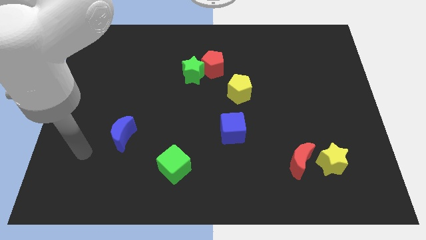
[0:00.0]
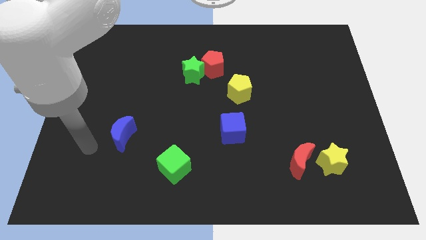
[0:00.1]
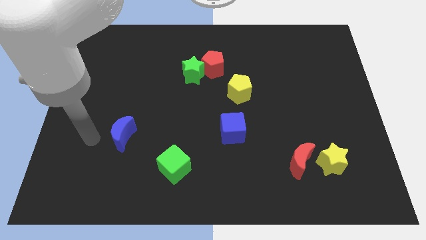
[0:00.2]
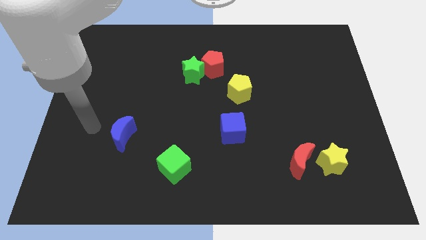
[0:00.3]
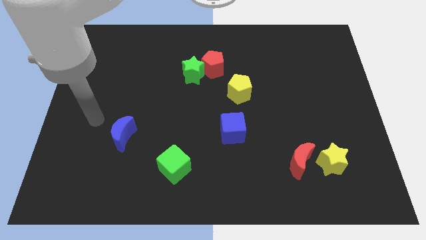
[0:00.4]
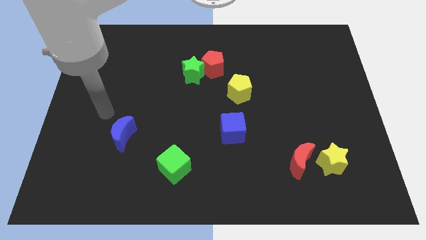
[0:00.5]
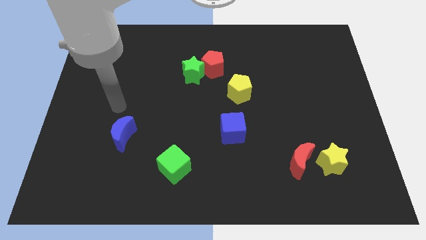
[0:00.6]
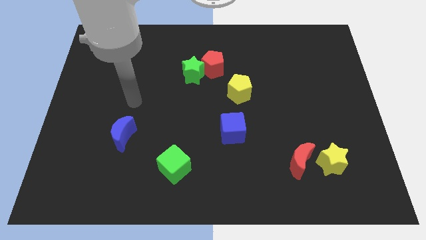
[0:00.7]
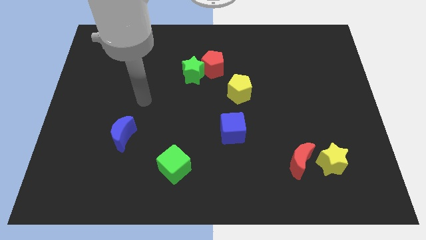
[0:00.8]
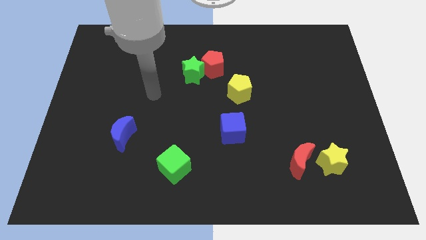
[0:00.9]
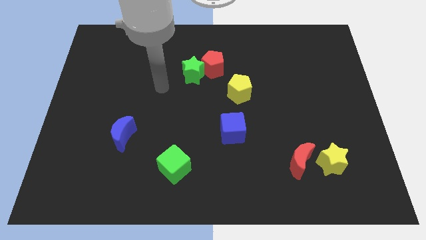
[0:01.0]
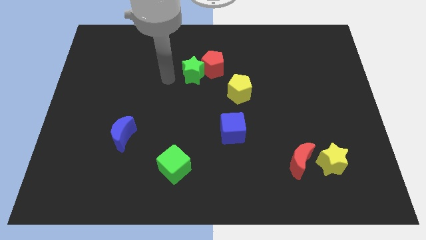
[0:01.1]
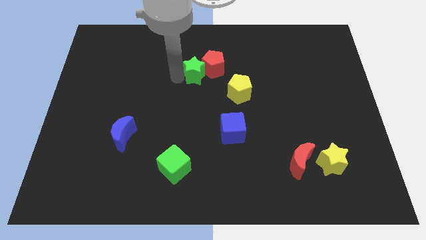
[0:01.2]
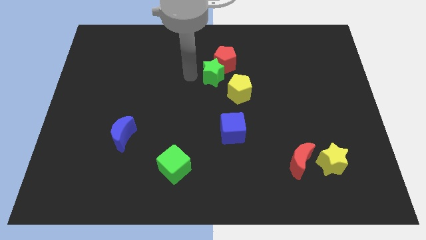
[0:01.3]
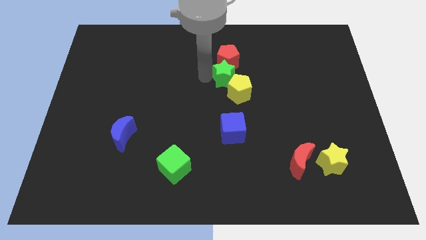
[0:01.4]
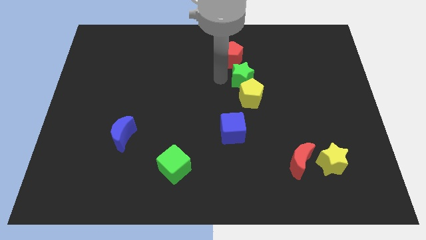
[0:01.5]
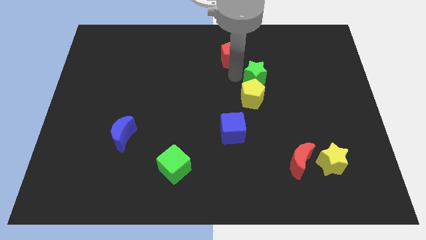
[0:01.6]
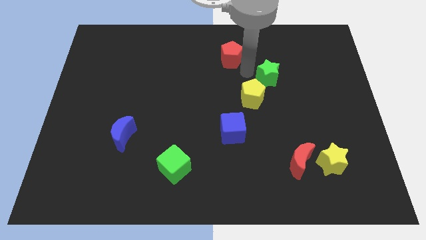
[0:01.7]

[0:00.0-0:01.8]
pull the red pentagon apart from the green star

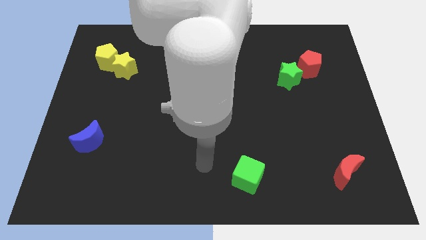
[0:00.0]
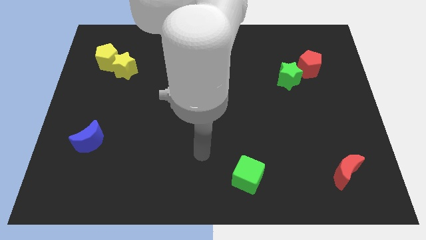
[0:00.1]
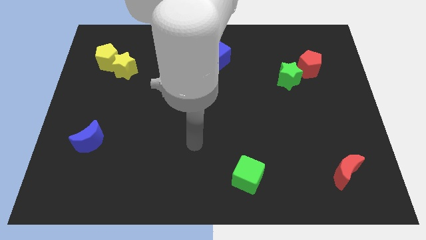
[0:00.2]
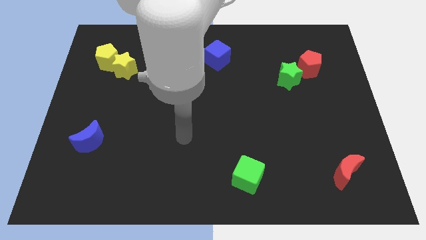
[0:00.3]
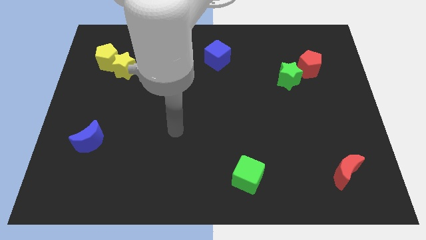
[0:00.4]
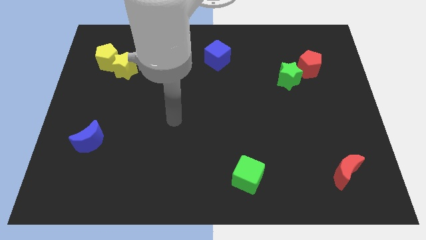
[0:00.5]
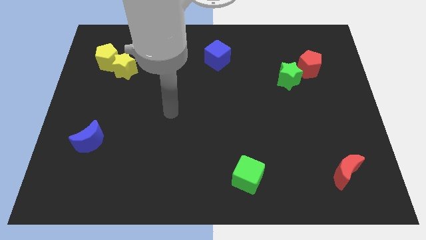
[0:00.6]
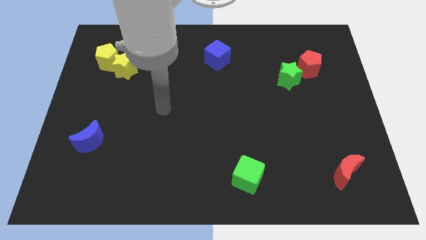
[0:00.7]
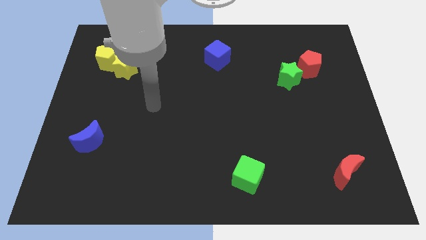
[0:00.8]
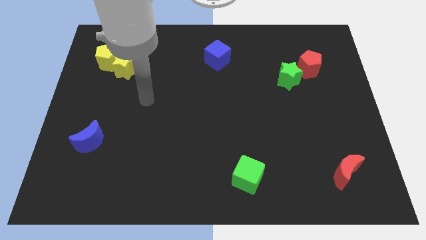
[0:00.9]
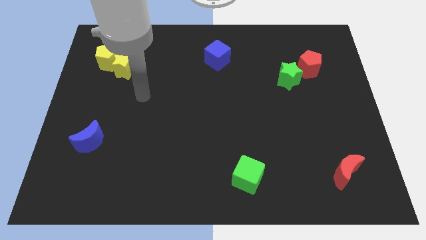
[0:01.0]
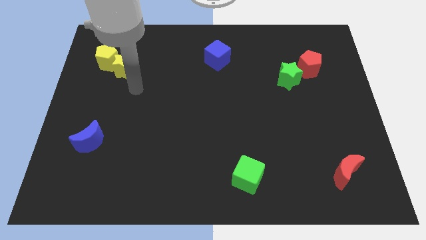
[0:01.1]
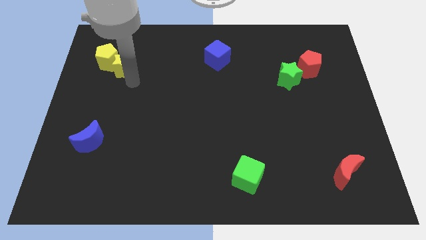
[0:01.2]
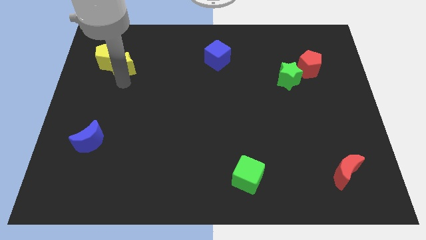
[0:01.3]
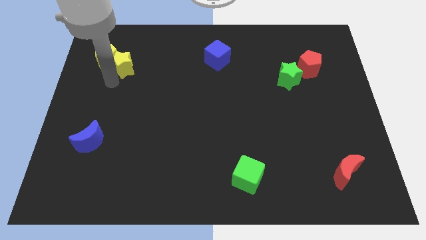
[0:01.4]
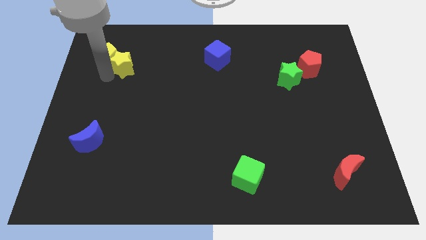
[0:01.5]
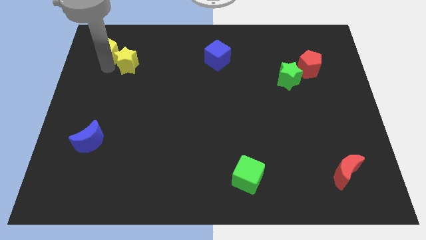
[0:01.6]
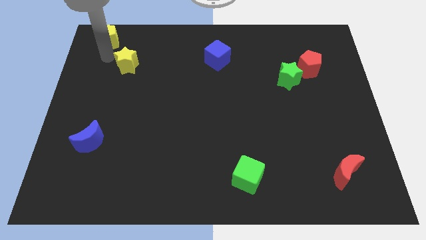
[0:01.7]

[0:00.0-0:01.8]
separate the yellow star from the yellow pentagon

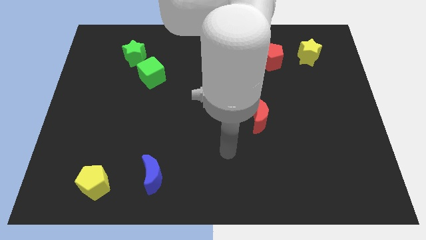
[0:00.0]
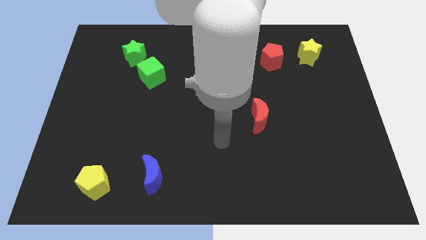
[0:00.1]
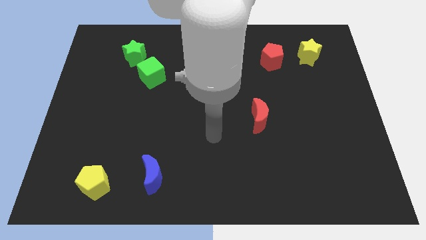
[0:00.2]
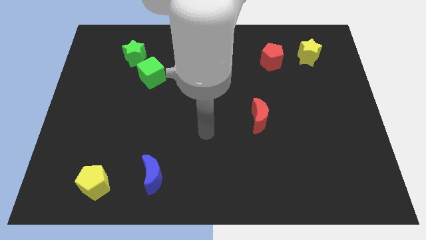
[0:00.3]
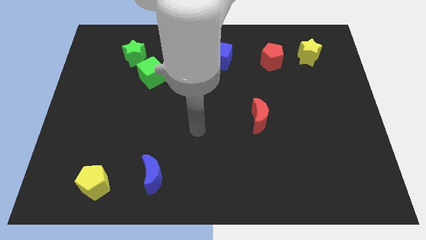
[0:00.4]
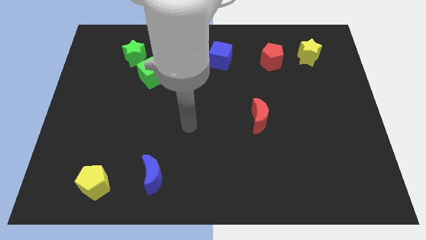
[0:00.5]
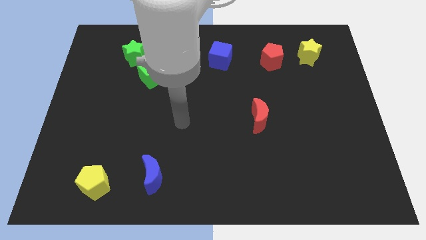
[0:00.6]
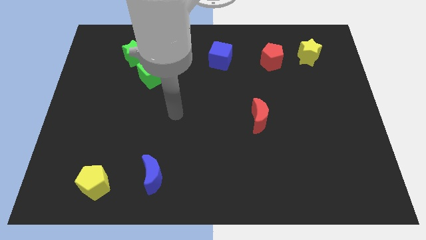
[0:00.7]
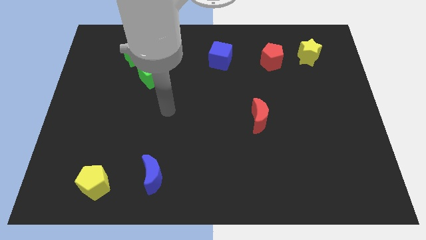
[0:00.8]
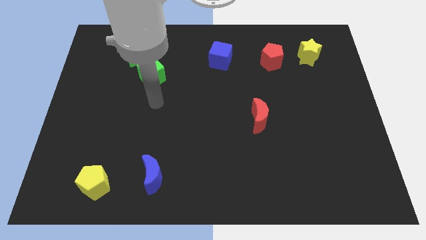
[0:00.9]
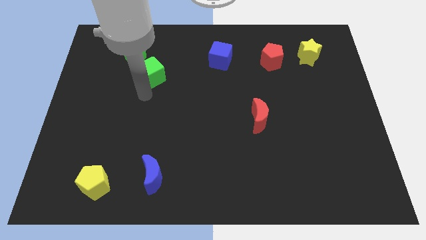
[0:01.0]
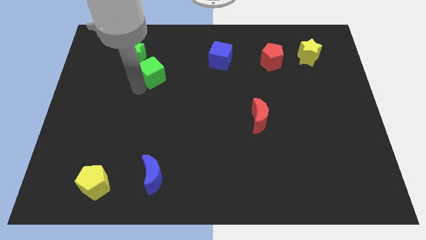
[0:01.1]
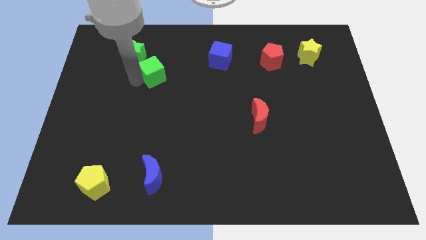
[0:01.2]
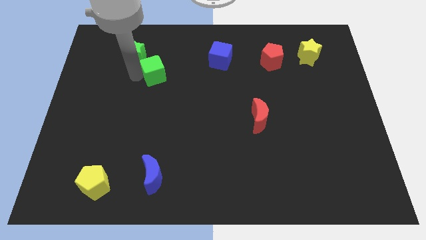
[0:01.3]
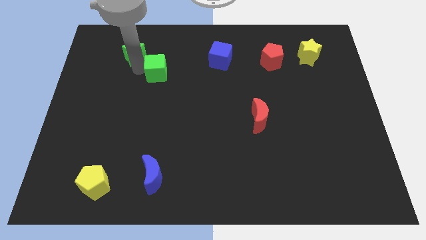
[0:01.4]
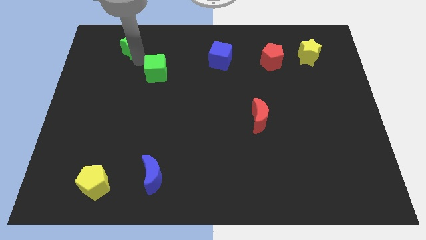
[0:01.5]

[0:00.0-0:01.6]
pull the green cube apart from the green star

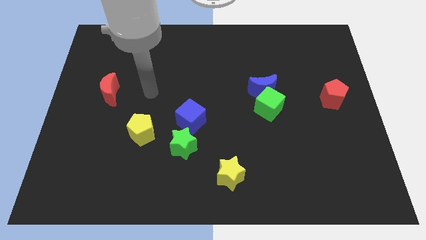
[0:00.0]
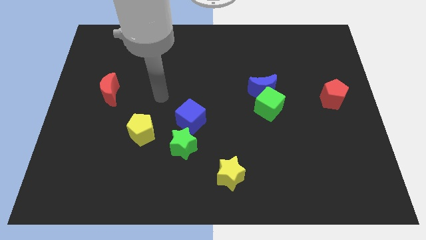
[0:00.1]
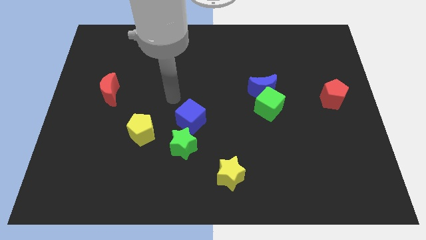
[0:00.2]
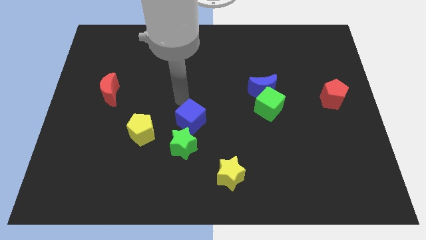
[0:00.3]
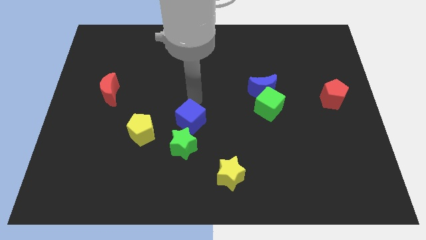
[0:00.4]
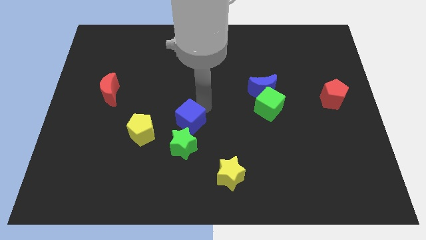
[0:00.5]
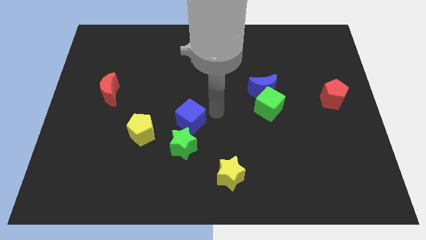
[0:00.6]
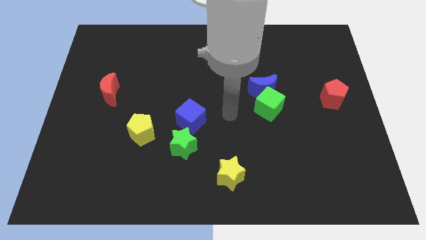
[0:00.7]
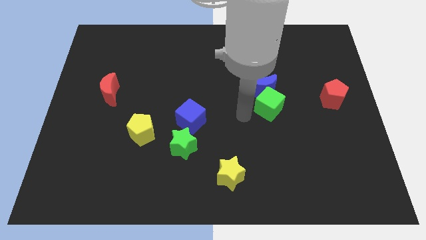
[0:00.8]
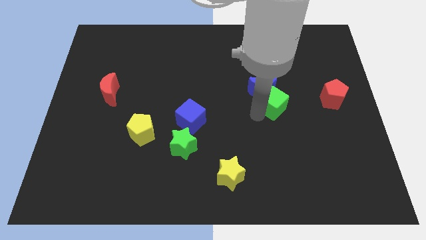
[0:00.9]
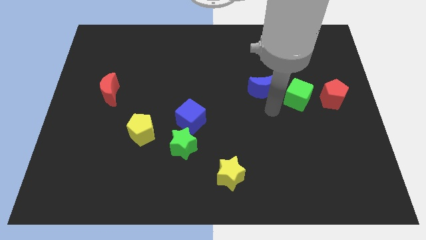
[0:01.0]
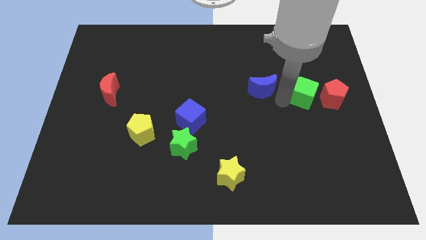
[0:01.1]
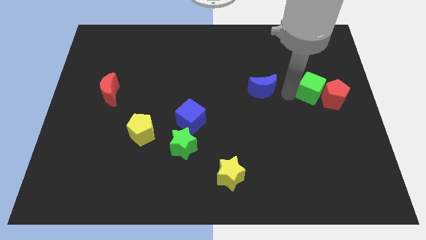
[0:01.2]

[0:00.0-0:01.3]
separate the blue moon from the green cube

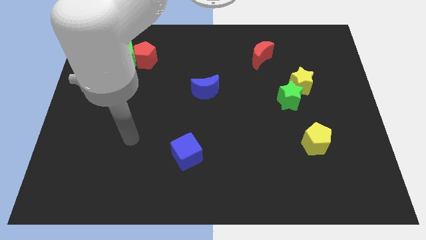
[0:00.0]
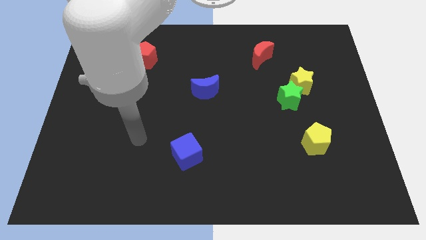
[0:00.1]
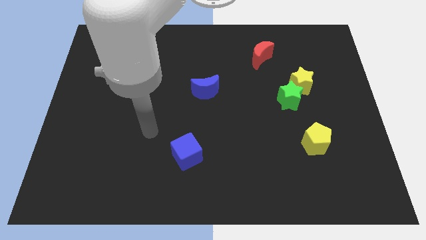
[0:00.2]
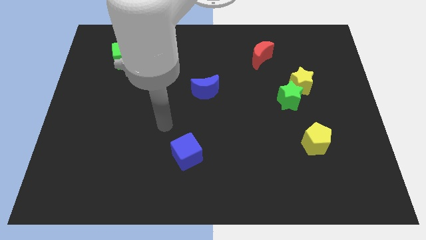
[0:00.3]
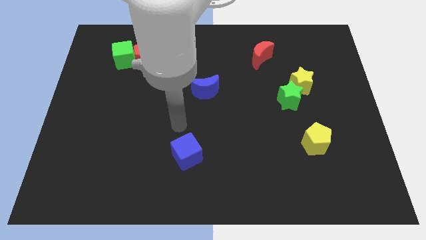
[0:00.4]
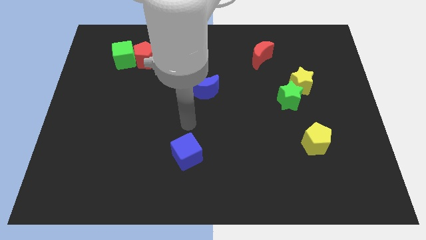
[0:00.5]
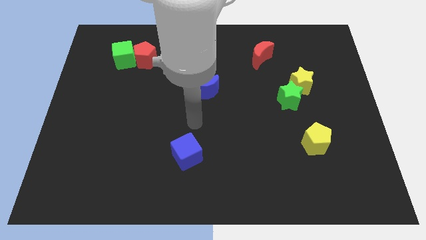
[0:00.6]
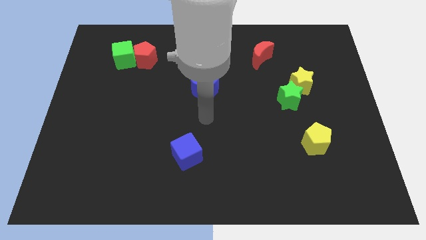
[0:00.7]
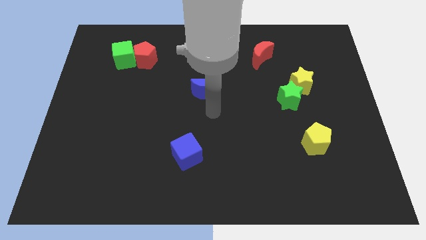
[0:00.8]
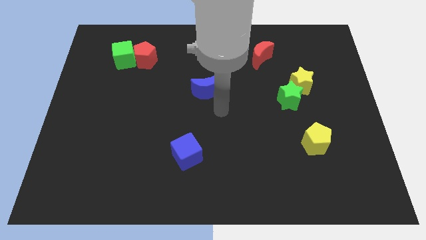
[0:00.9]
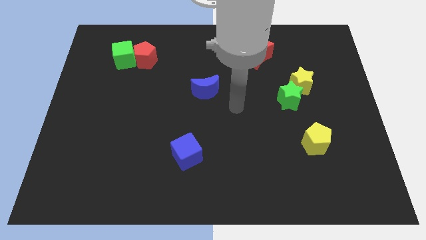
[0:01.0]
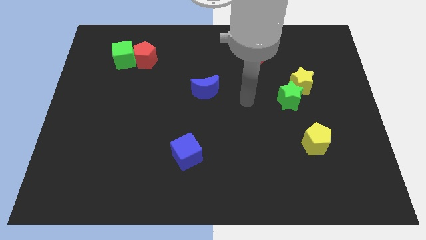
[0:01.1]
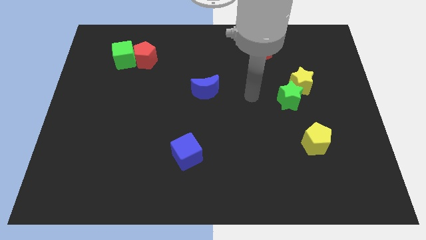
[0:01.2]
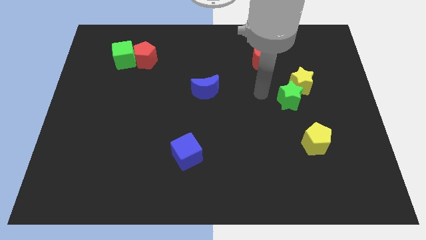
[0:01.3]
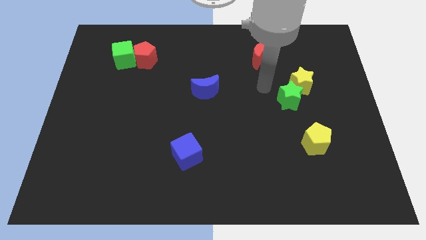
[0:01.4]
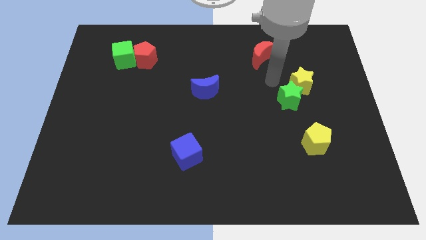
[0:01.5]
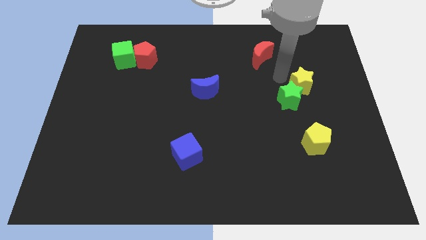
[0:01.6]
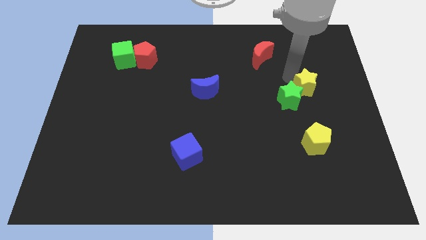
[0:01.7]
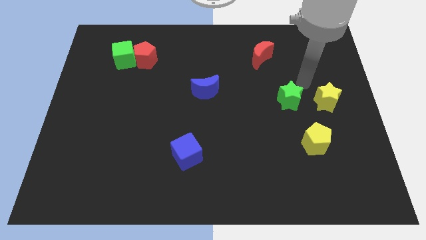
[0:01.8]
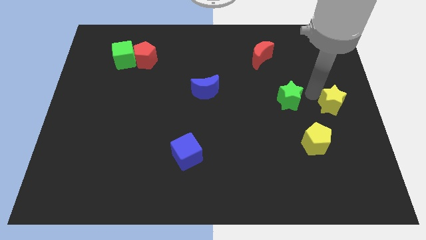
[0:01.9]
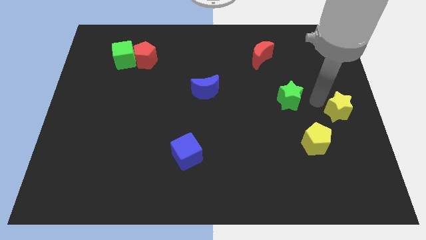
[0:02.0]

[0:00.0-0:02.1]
pull the green star apart from the yellow star

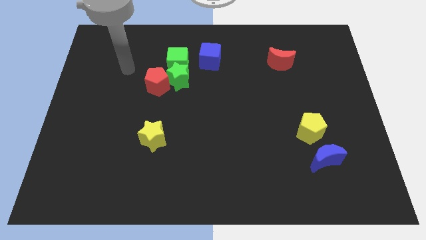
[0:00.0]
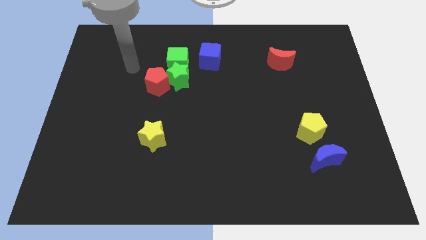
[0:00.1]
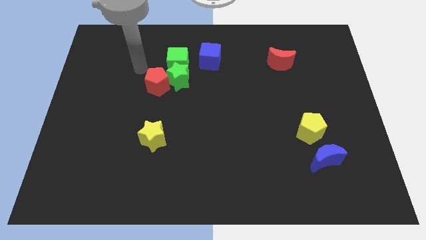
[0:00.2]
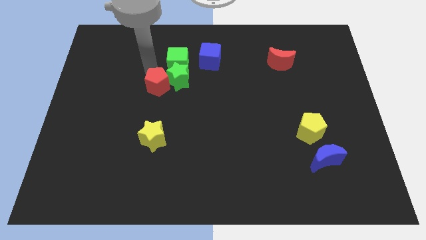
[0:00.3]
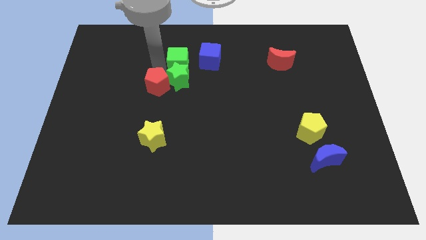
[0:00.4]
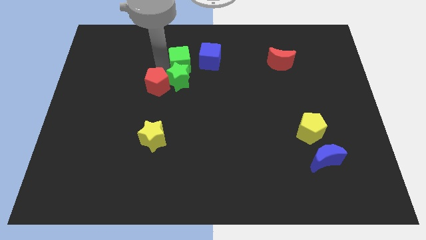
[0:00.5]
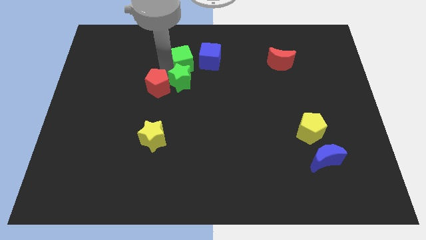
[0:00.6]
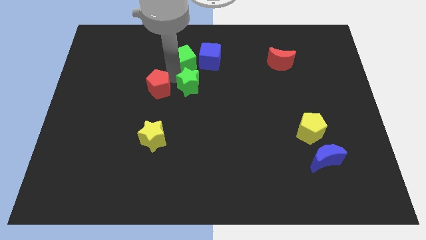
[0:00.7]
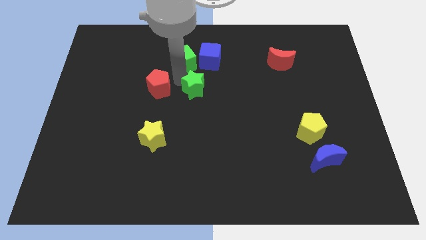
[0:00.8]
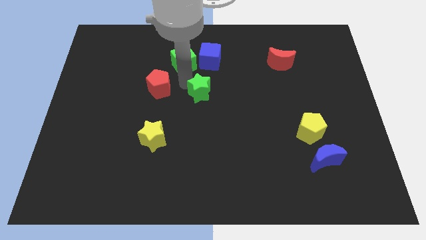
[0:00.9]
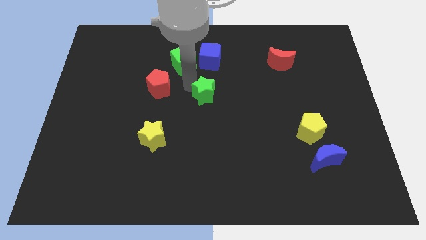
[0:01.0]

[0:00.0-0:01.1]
move the green star away from the red pentagon and green cube
